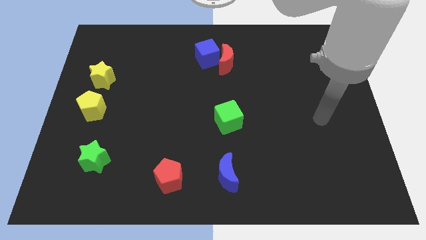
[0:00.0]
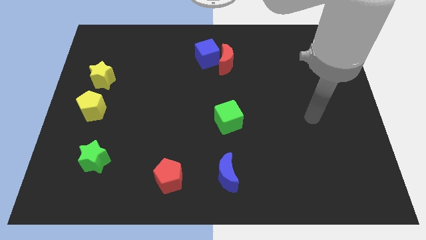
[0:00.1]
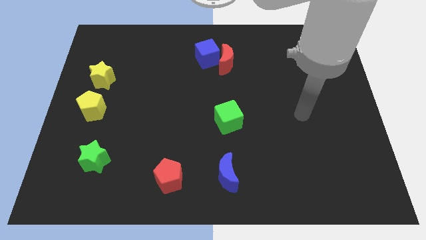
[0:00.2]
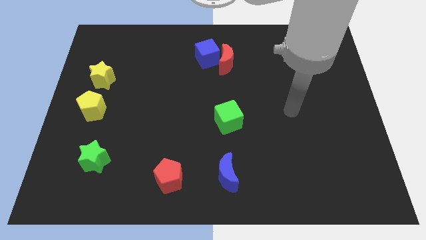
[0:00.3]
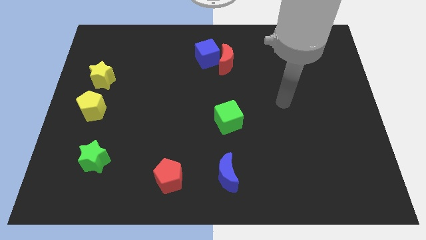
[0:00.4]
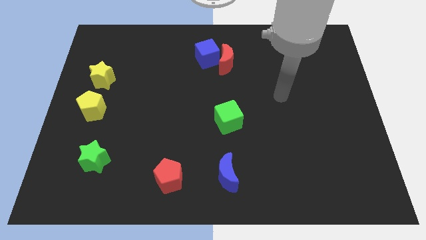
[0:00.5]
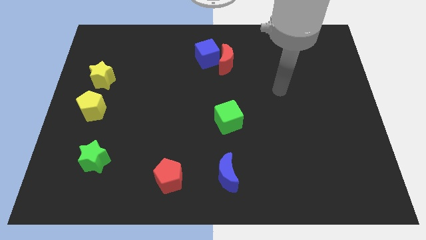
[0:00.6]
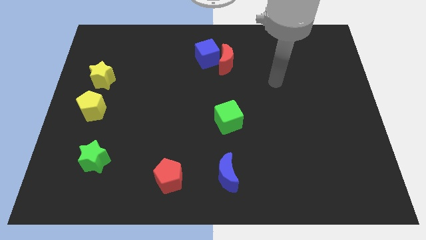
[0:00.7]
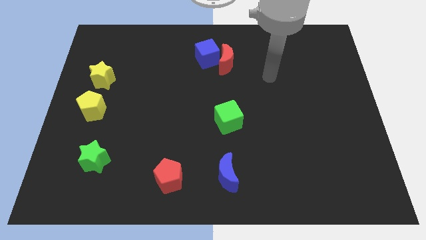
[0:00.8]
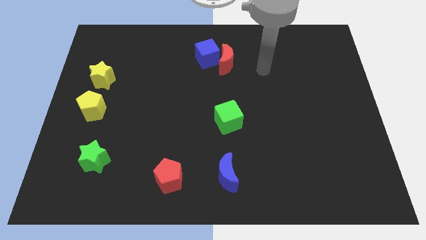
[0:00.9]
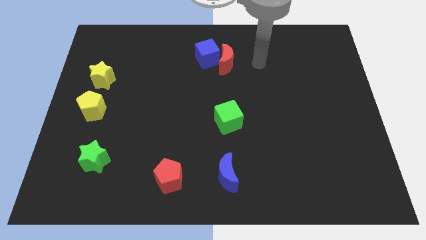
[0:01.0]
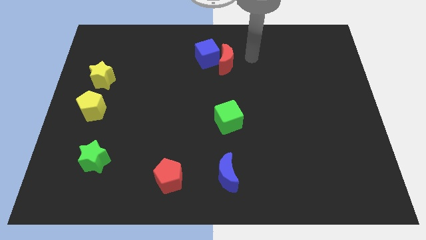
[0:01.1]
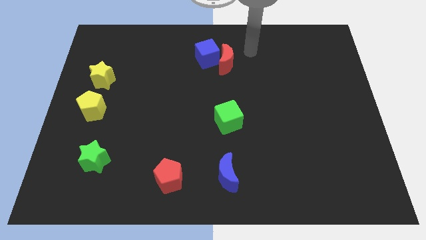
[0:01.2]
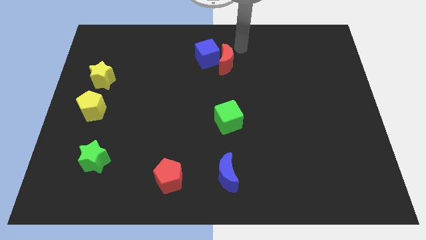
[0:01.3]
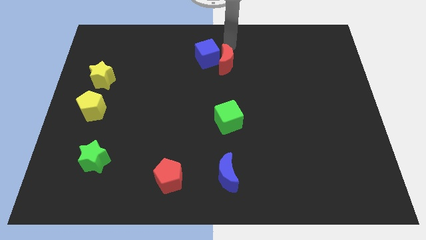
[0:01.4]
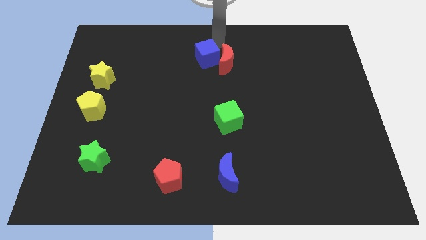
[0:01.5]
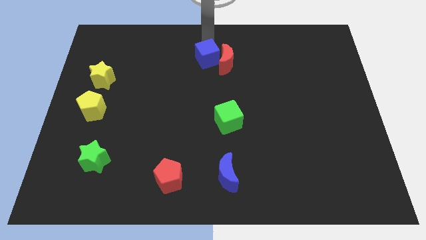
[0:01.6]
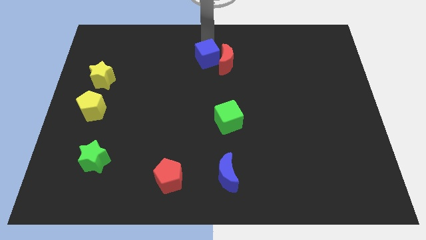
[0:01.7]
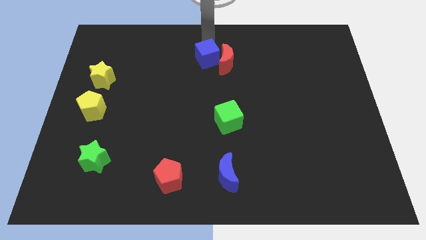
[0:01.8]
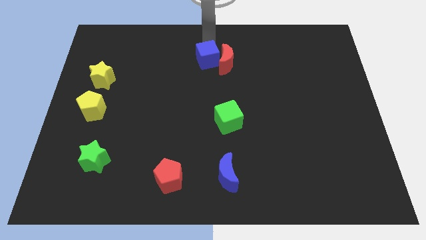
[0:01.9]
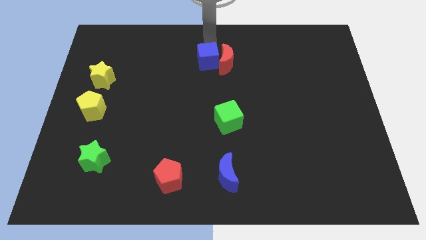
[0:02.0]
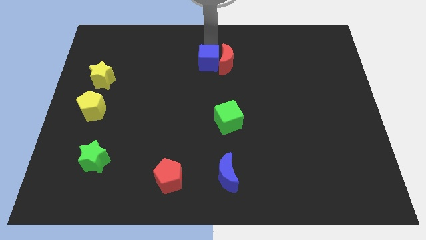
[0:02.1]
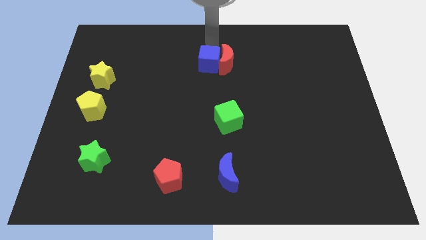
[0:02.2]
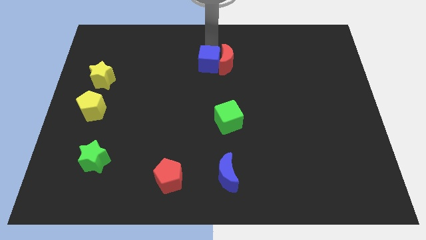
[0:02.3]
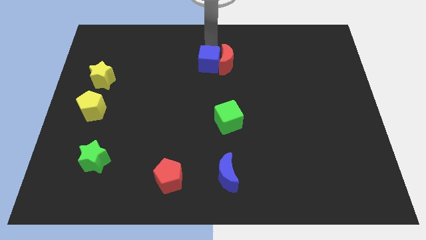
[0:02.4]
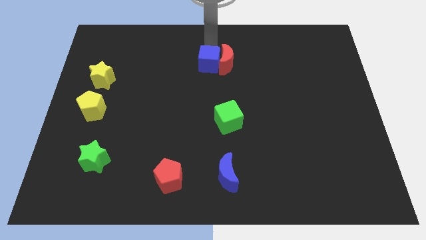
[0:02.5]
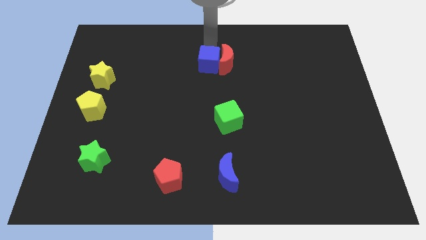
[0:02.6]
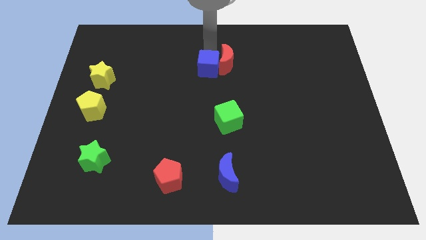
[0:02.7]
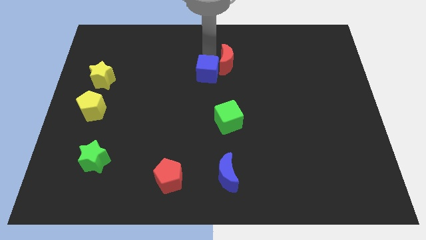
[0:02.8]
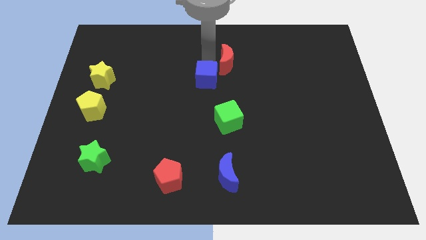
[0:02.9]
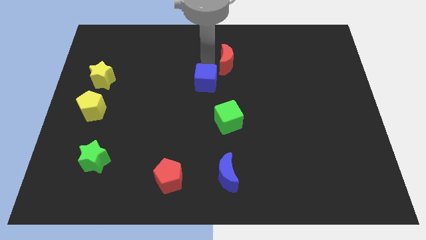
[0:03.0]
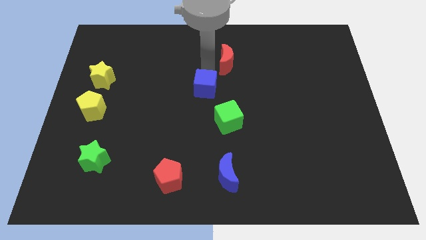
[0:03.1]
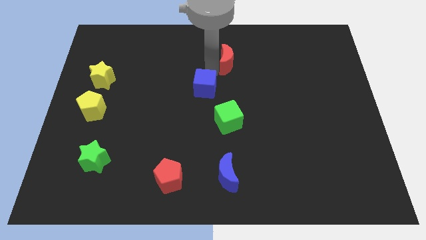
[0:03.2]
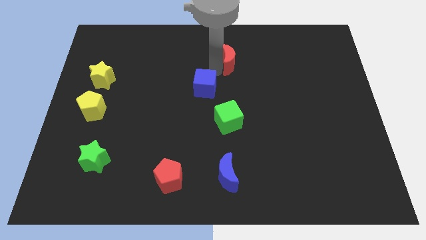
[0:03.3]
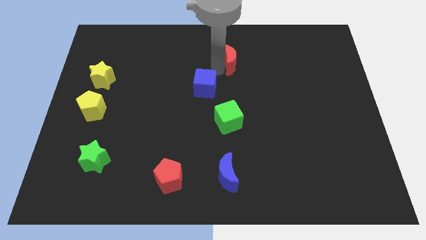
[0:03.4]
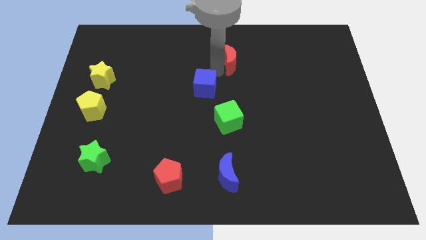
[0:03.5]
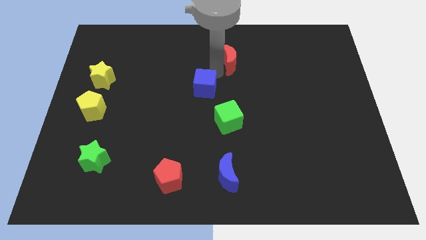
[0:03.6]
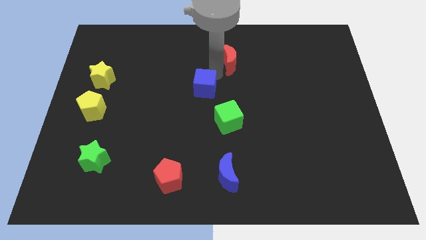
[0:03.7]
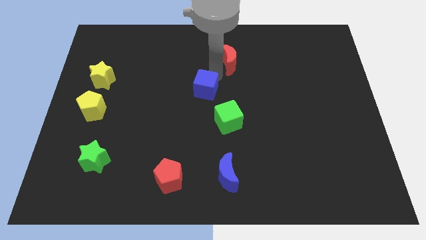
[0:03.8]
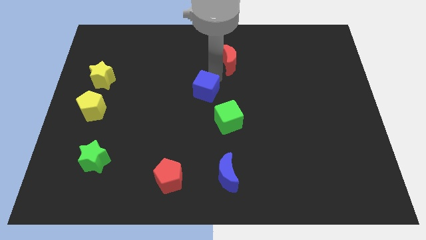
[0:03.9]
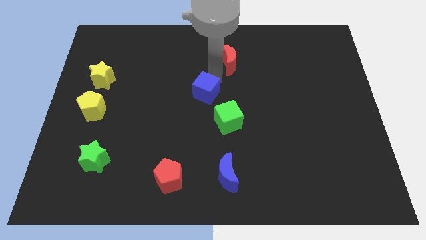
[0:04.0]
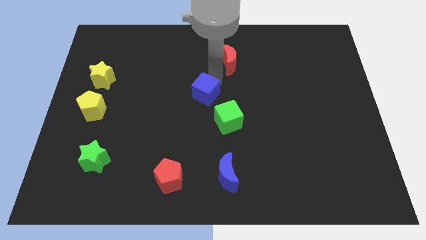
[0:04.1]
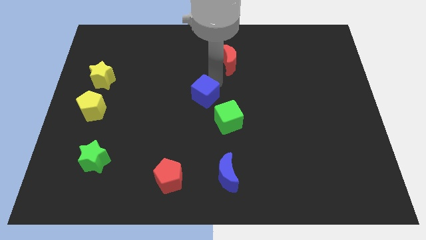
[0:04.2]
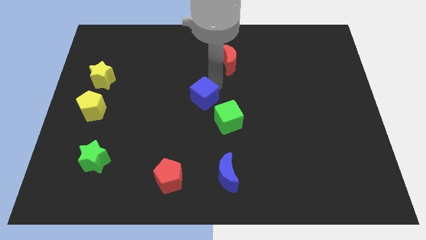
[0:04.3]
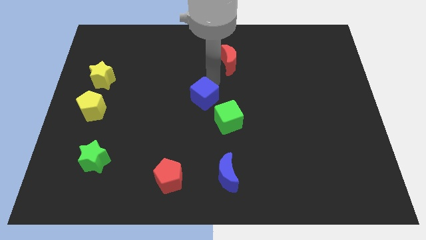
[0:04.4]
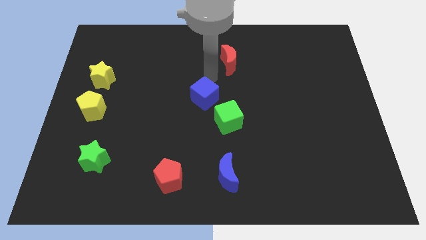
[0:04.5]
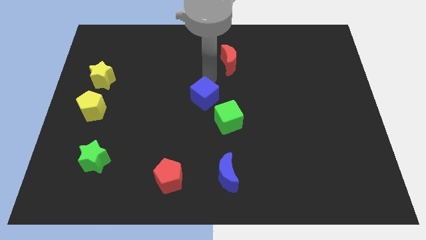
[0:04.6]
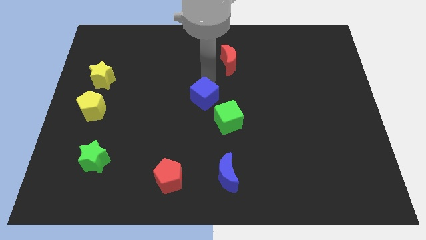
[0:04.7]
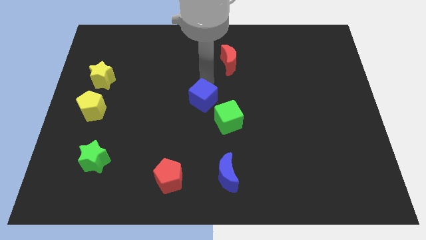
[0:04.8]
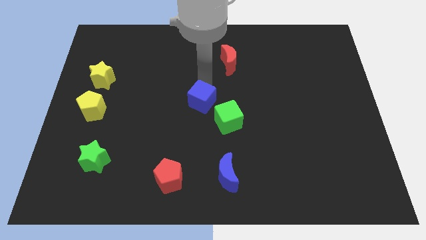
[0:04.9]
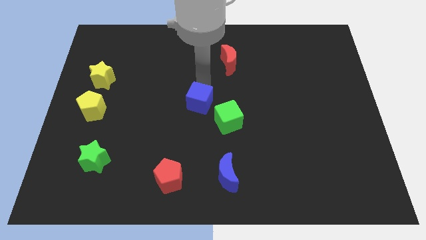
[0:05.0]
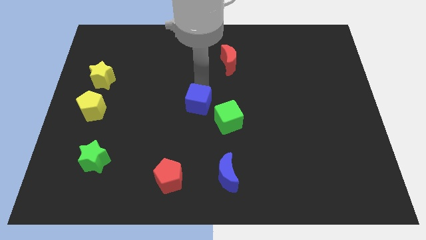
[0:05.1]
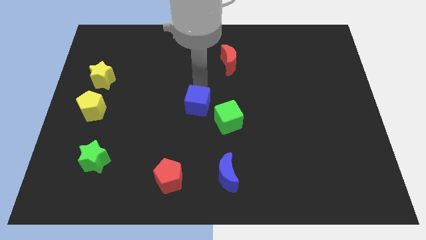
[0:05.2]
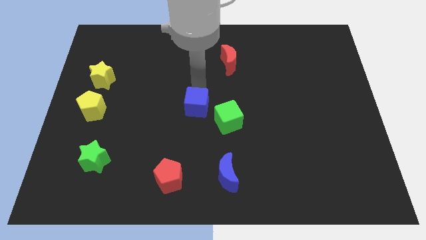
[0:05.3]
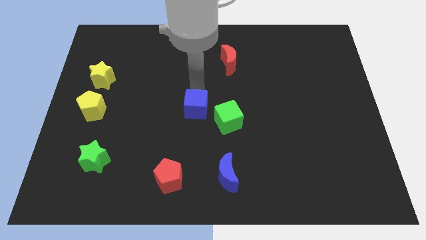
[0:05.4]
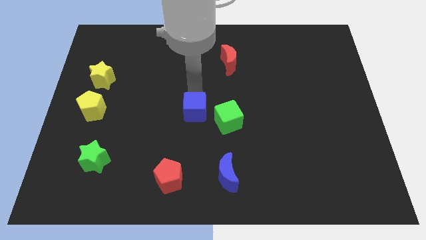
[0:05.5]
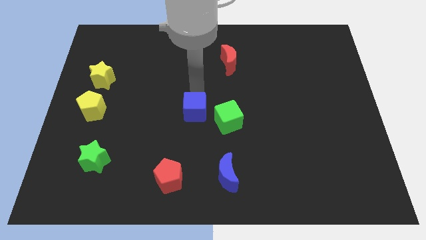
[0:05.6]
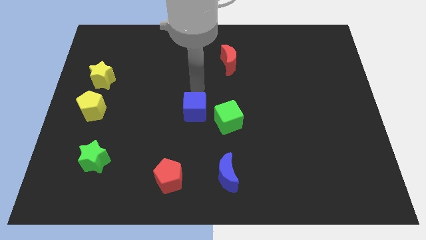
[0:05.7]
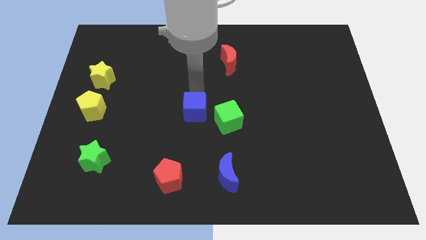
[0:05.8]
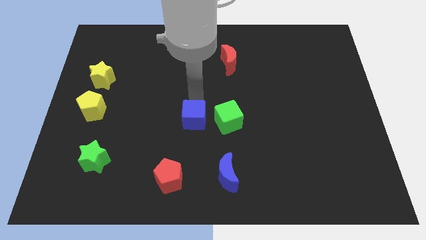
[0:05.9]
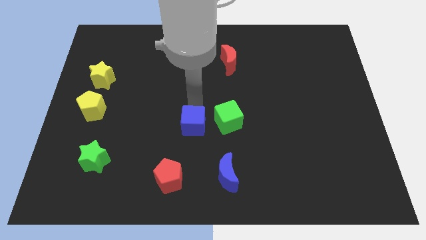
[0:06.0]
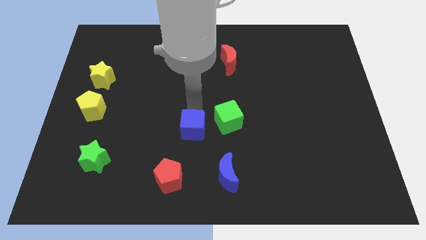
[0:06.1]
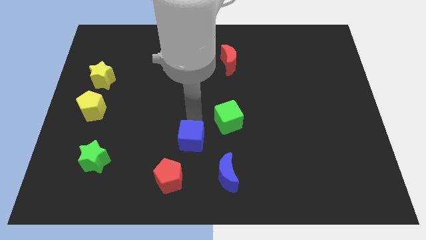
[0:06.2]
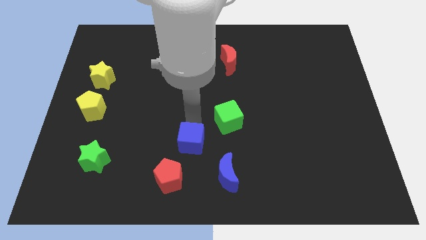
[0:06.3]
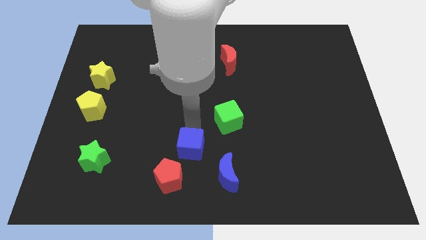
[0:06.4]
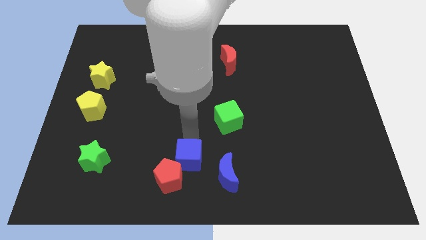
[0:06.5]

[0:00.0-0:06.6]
put the blue cube to the bottom side
